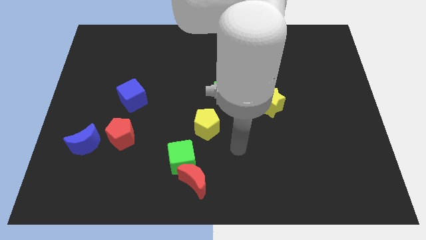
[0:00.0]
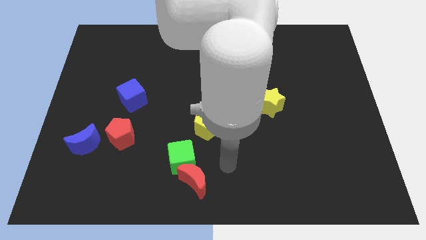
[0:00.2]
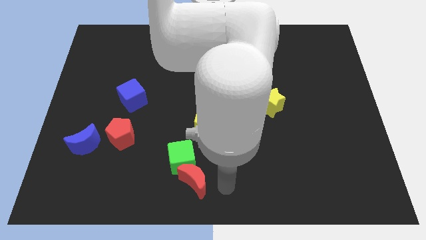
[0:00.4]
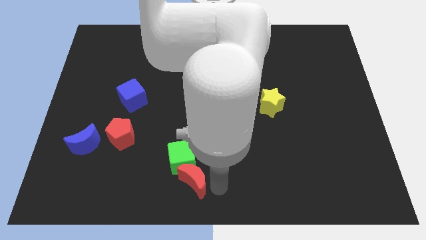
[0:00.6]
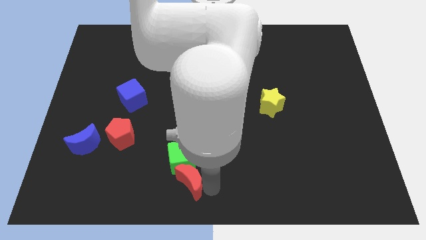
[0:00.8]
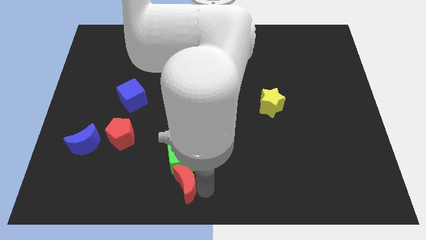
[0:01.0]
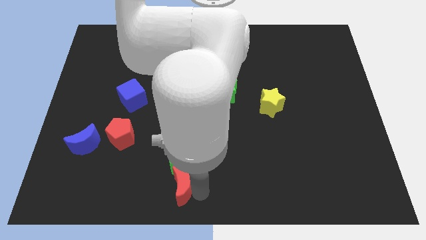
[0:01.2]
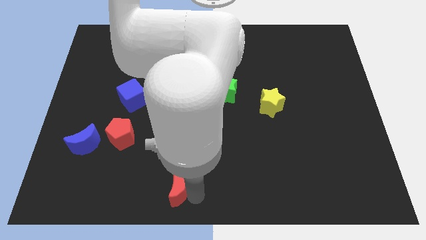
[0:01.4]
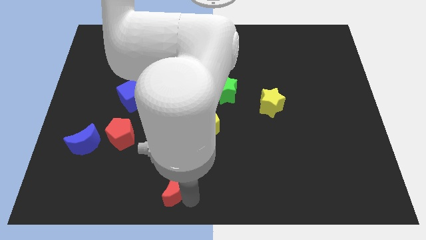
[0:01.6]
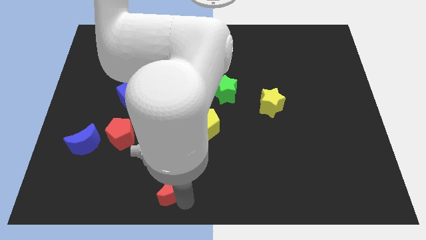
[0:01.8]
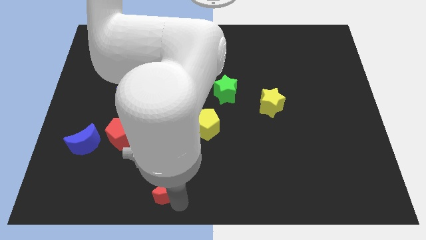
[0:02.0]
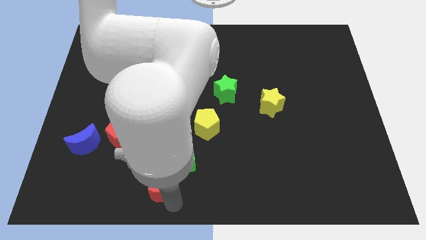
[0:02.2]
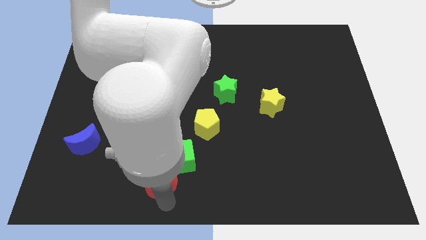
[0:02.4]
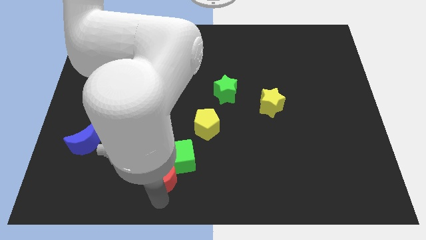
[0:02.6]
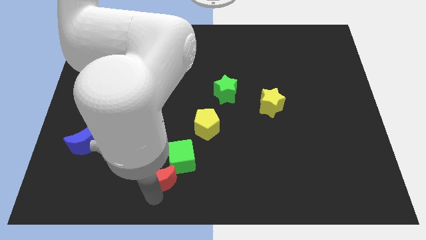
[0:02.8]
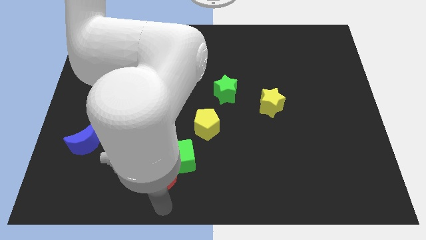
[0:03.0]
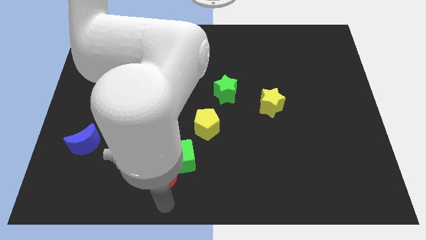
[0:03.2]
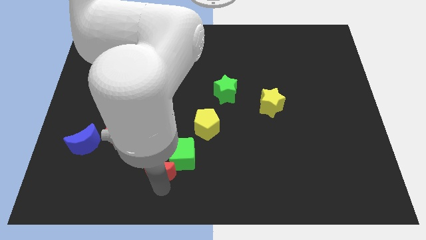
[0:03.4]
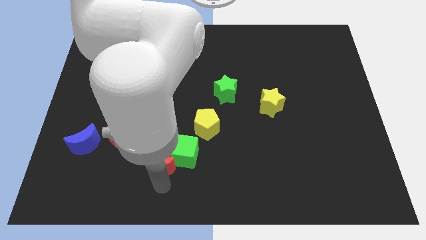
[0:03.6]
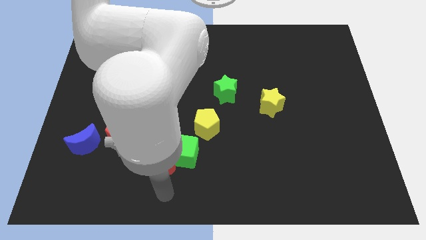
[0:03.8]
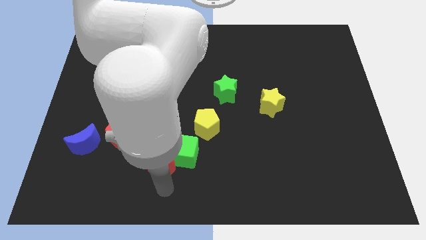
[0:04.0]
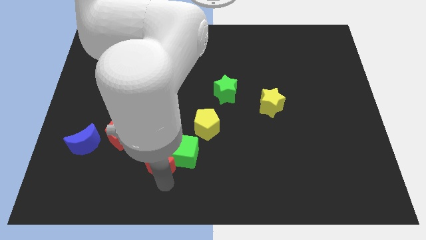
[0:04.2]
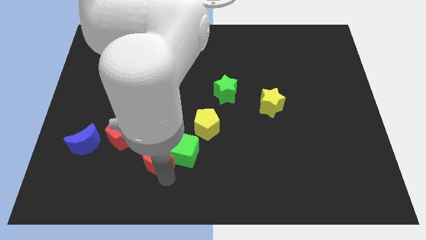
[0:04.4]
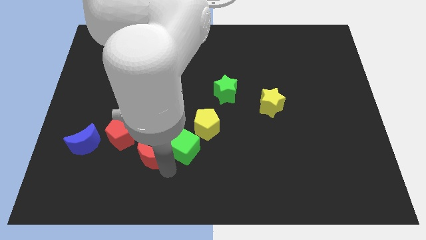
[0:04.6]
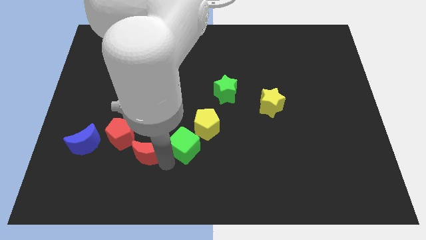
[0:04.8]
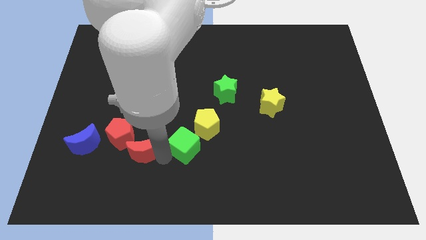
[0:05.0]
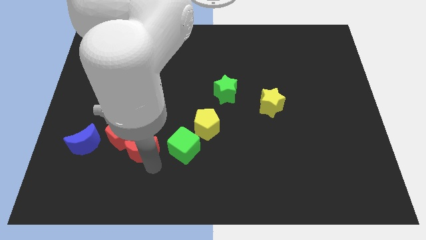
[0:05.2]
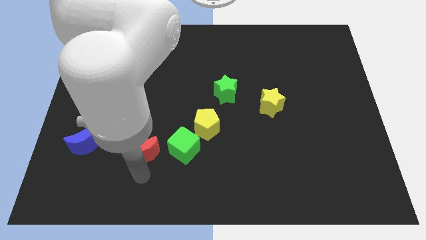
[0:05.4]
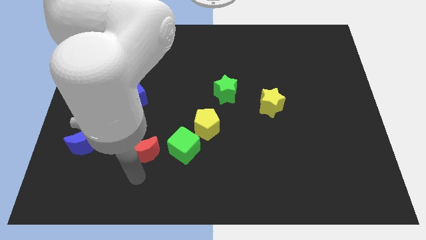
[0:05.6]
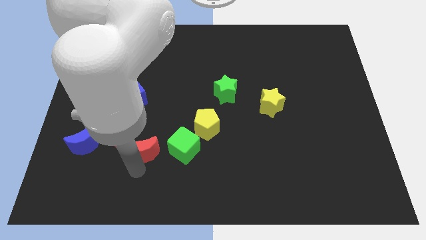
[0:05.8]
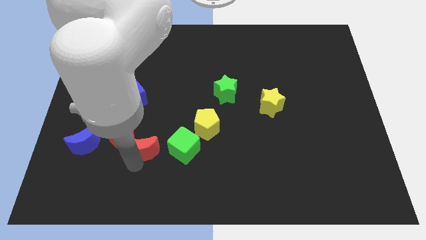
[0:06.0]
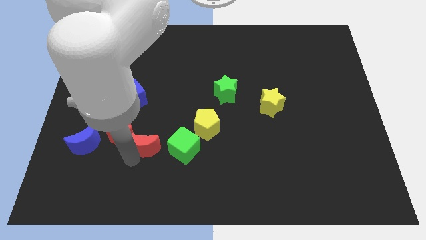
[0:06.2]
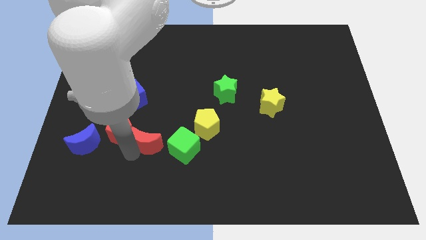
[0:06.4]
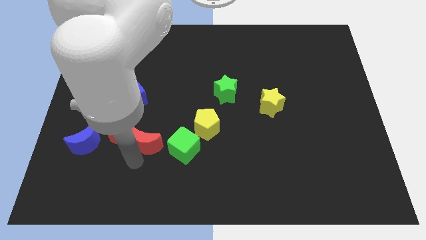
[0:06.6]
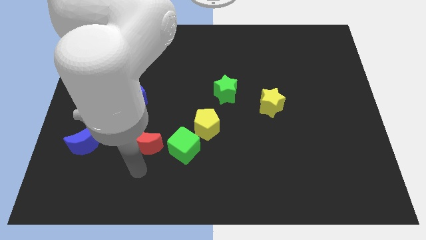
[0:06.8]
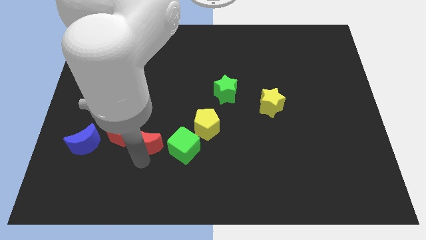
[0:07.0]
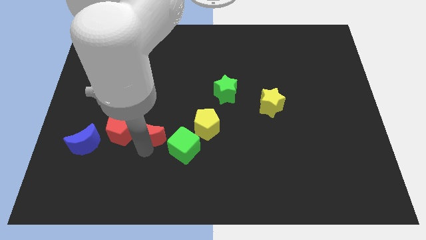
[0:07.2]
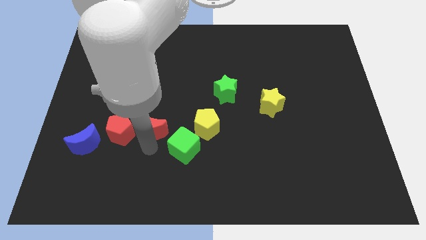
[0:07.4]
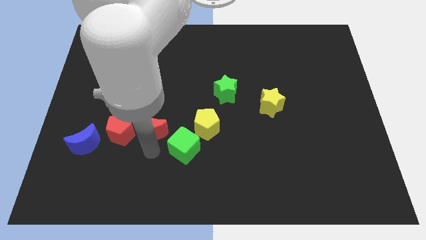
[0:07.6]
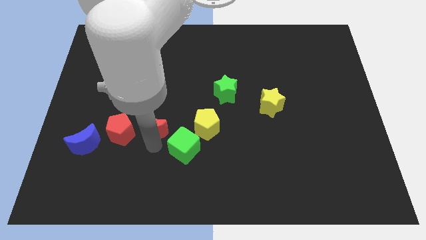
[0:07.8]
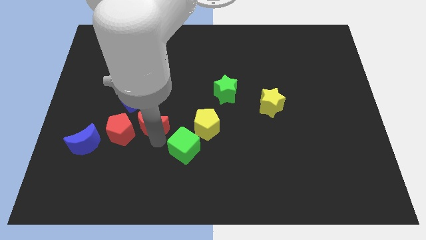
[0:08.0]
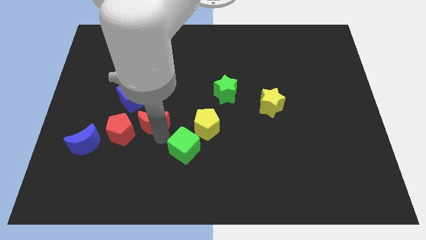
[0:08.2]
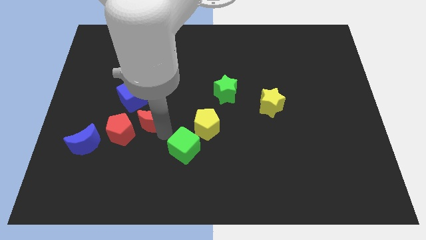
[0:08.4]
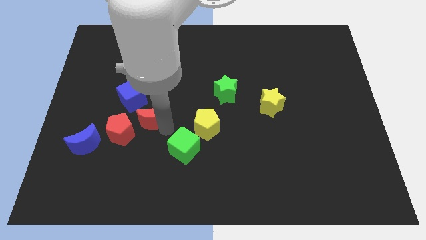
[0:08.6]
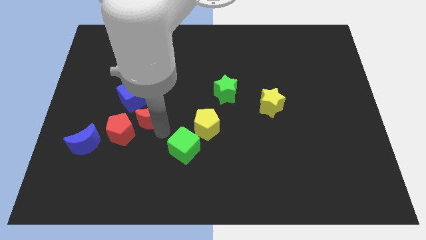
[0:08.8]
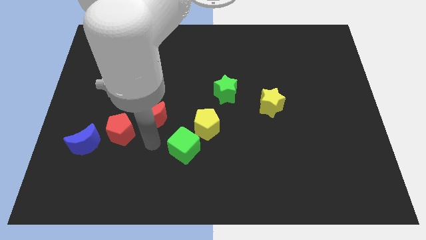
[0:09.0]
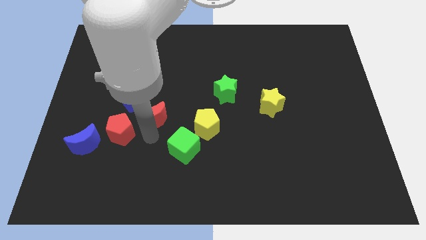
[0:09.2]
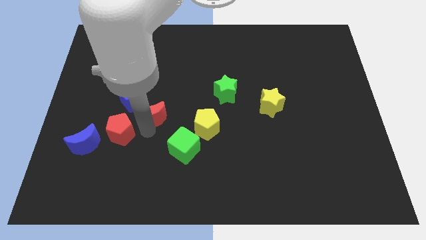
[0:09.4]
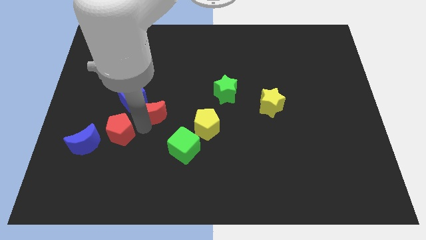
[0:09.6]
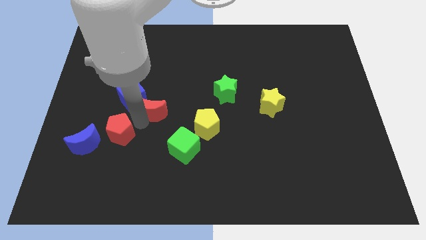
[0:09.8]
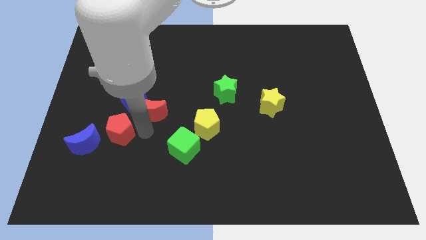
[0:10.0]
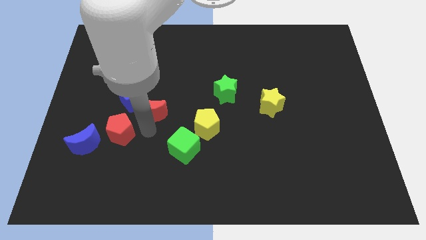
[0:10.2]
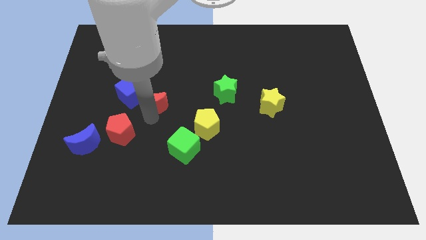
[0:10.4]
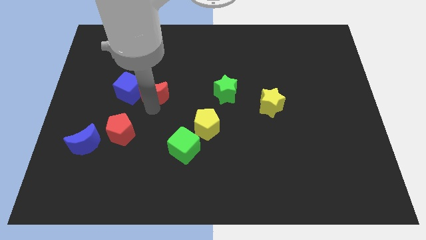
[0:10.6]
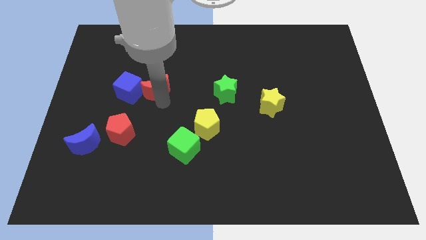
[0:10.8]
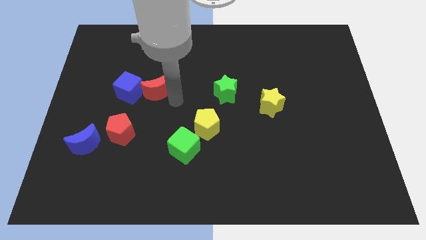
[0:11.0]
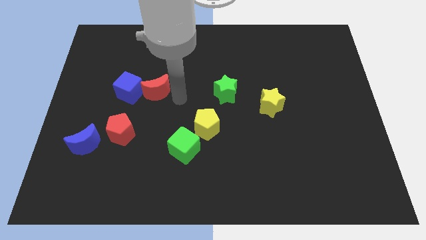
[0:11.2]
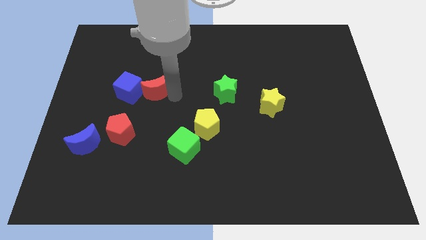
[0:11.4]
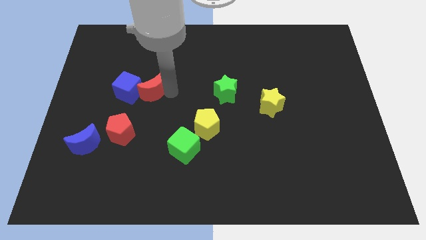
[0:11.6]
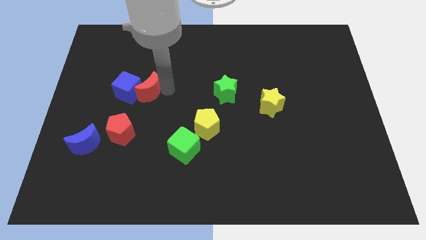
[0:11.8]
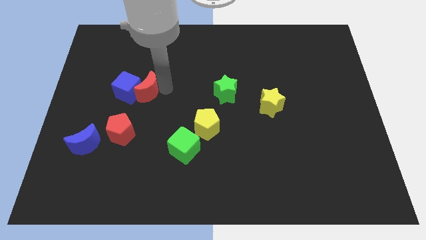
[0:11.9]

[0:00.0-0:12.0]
move the red moon to the top side of the red pentagon
